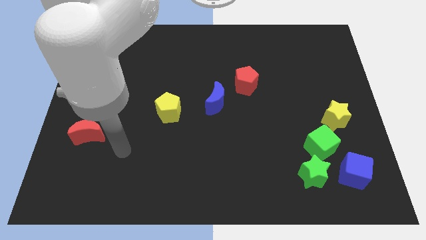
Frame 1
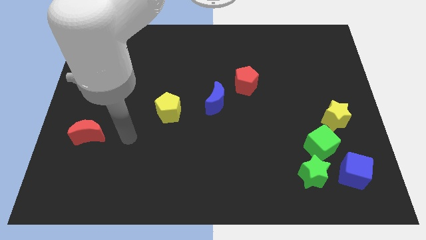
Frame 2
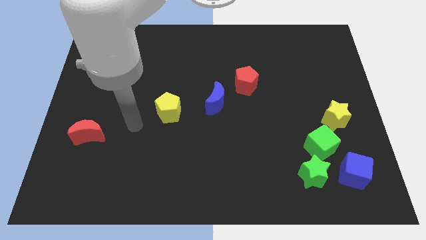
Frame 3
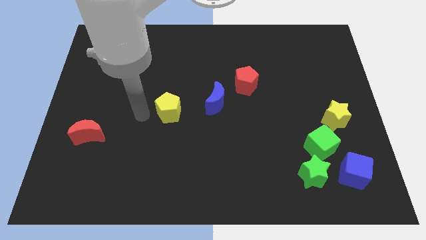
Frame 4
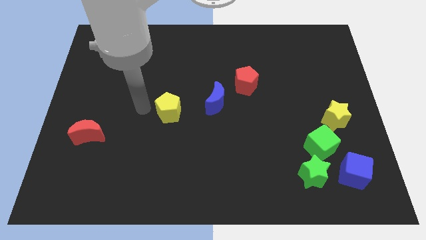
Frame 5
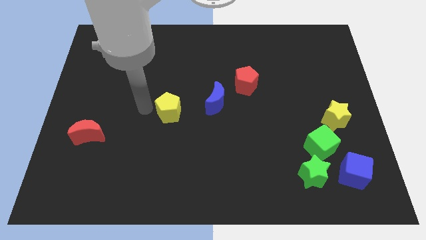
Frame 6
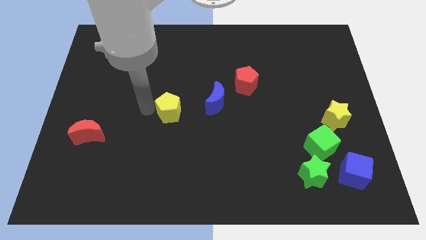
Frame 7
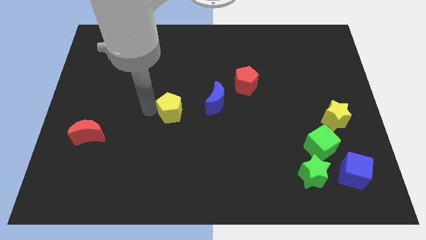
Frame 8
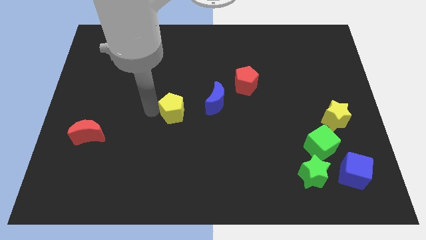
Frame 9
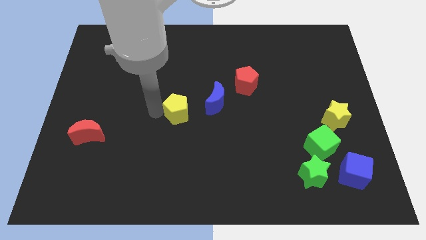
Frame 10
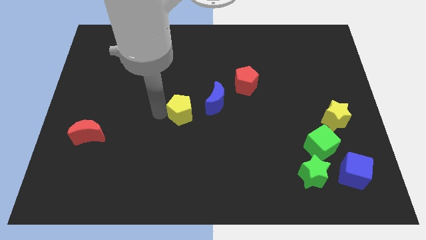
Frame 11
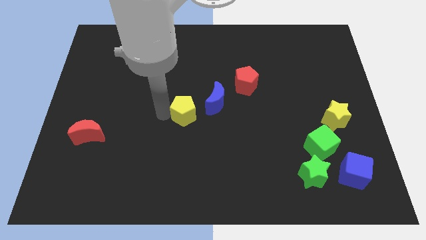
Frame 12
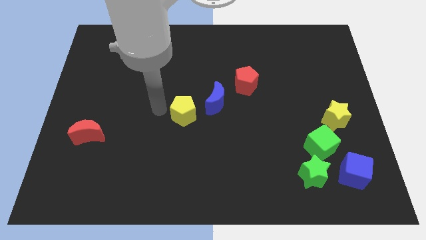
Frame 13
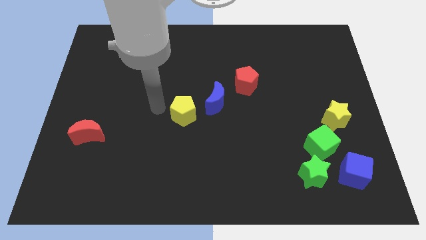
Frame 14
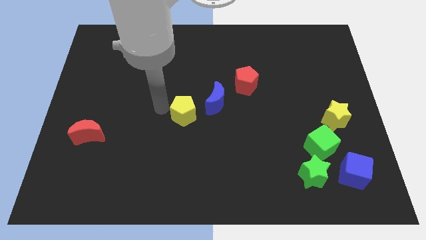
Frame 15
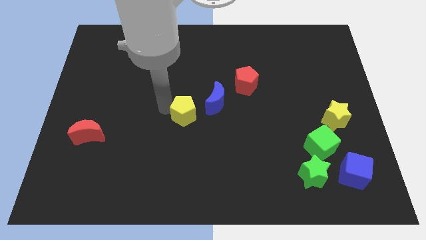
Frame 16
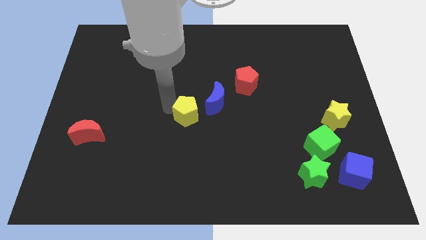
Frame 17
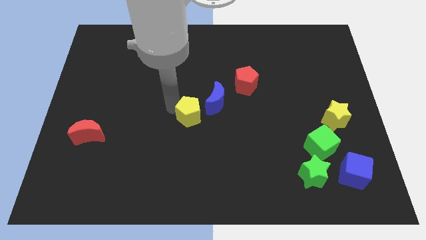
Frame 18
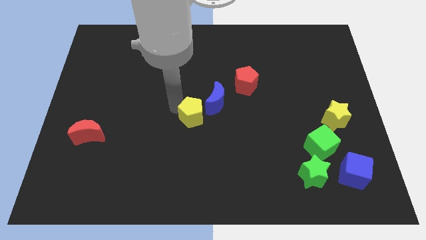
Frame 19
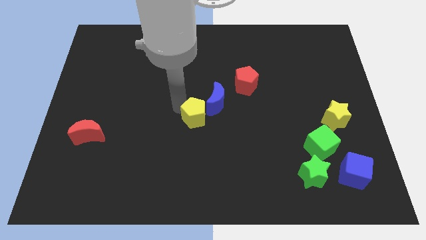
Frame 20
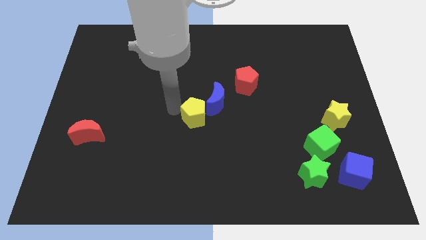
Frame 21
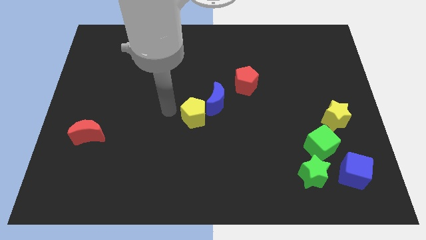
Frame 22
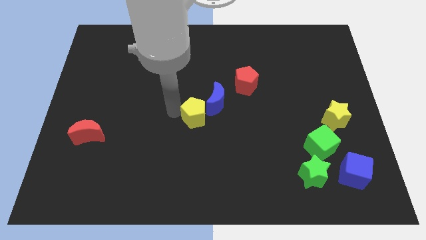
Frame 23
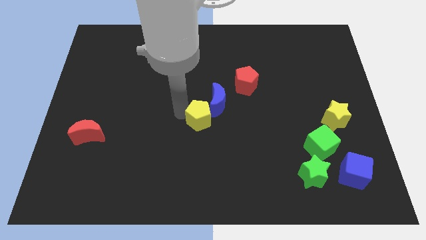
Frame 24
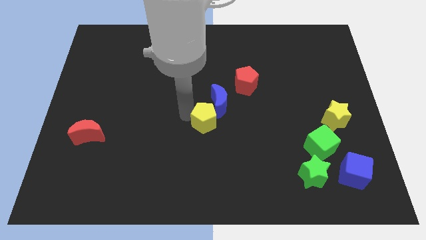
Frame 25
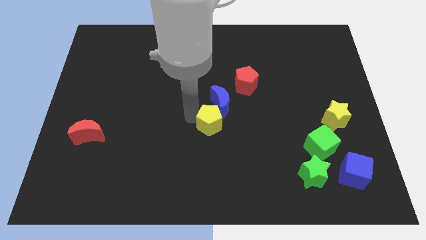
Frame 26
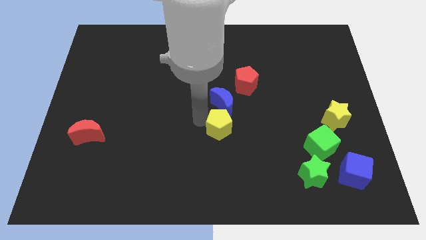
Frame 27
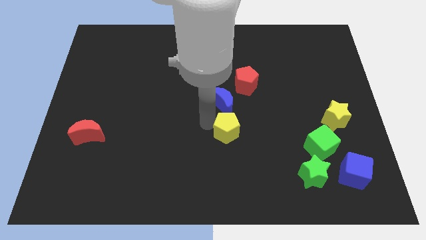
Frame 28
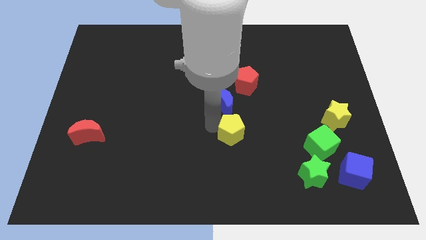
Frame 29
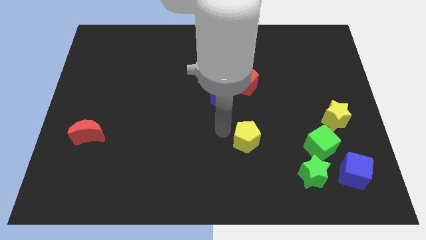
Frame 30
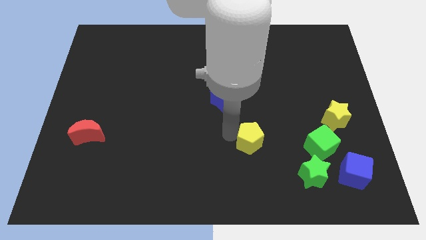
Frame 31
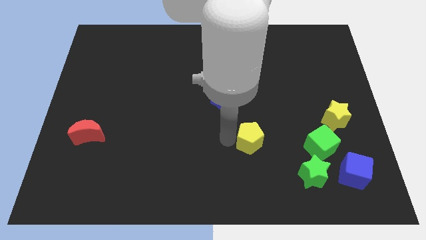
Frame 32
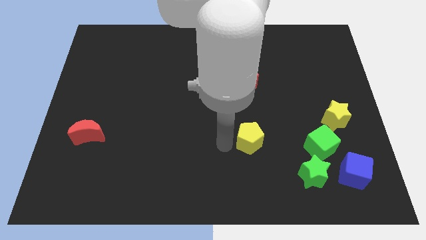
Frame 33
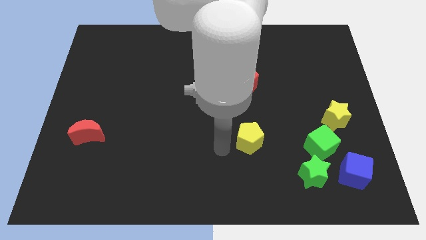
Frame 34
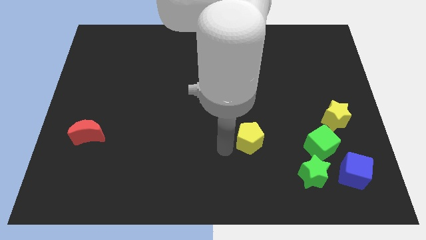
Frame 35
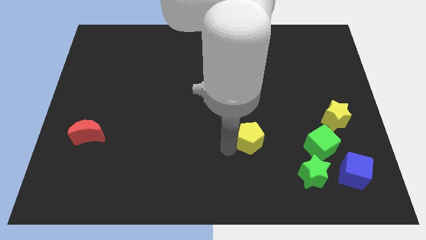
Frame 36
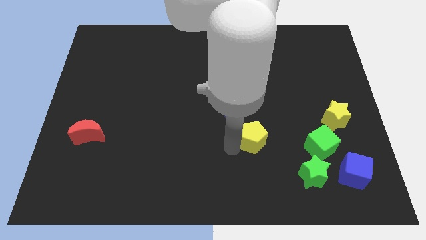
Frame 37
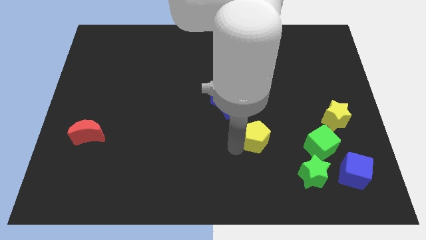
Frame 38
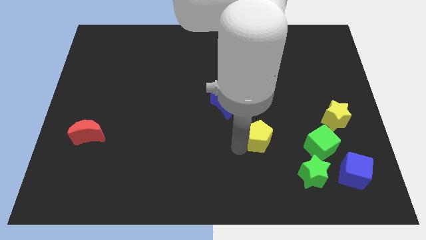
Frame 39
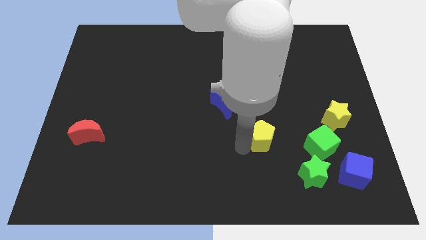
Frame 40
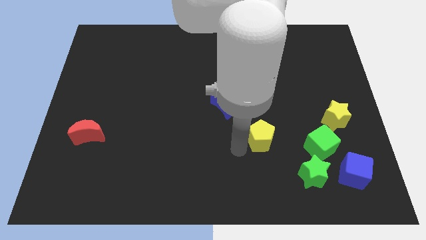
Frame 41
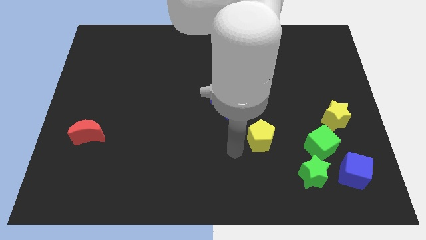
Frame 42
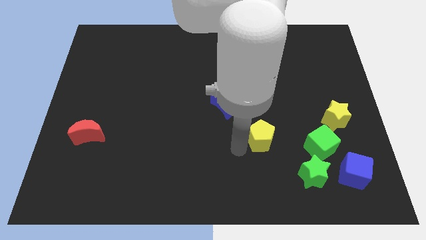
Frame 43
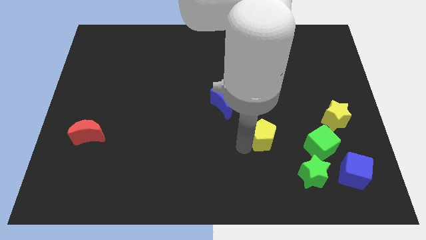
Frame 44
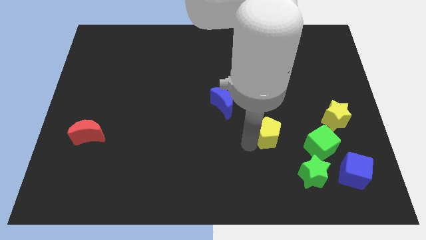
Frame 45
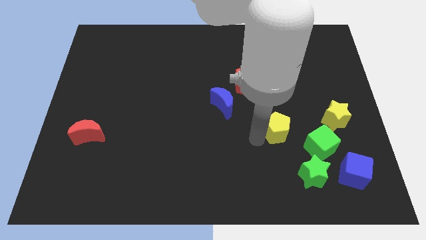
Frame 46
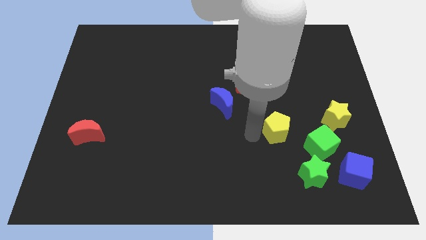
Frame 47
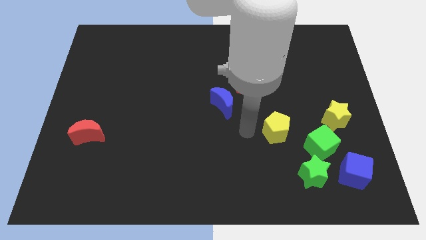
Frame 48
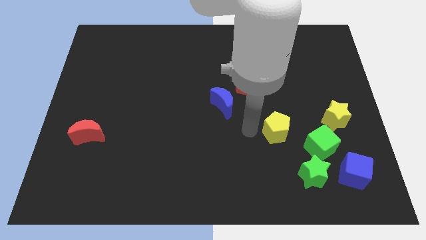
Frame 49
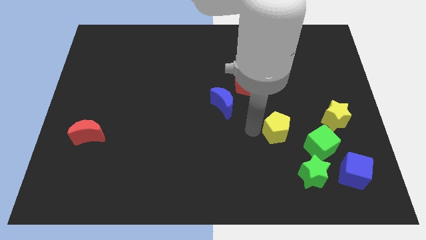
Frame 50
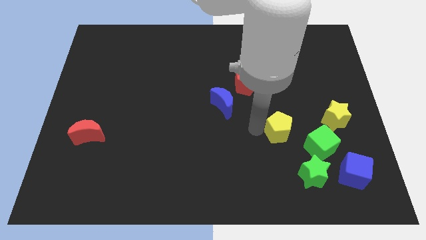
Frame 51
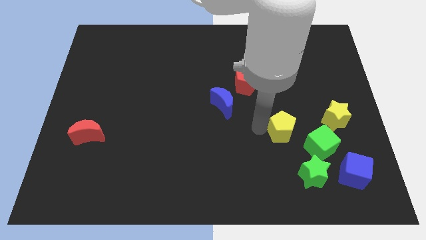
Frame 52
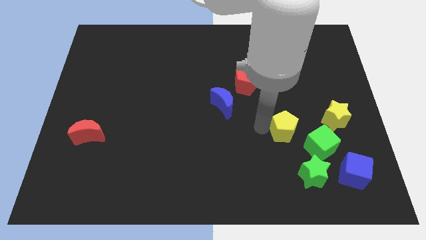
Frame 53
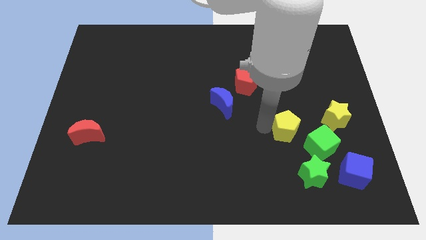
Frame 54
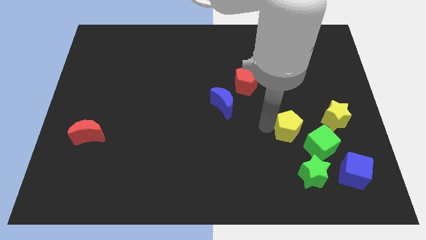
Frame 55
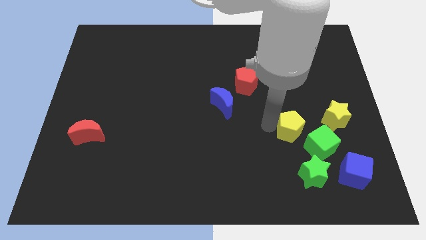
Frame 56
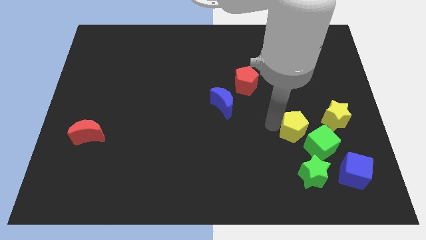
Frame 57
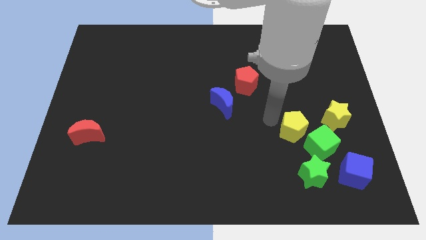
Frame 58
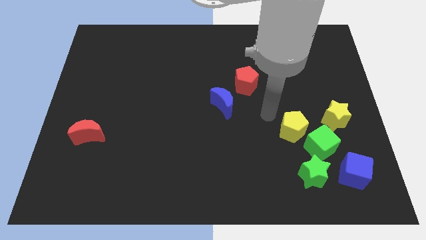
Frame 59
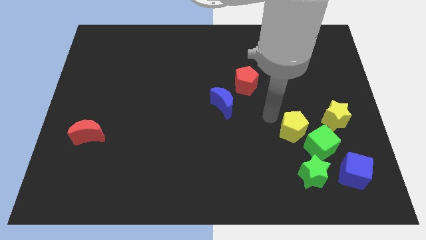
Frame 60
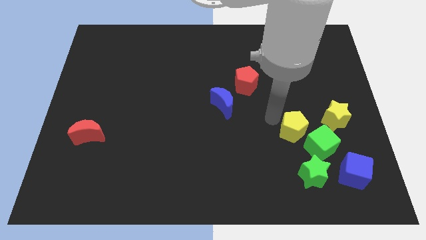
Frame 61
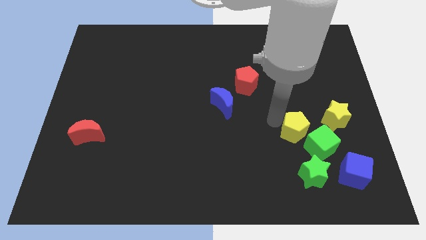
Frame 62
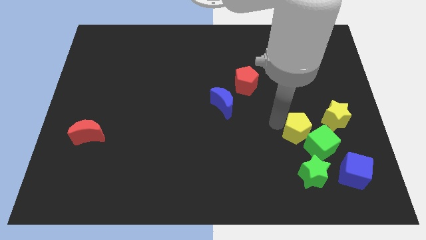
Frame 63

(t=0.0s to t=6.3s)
put the yellow pentagon close to the green cube

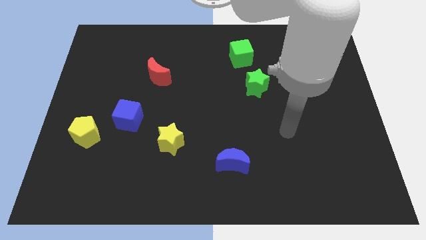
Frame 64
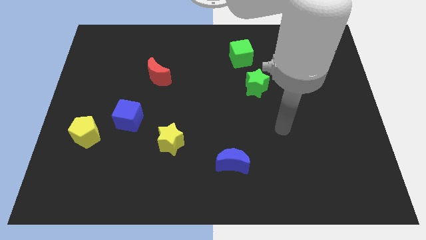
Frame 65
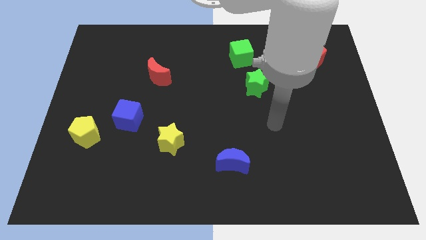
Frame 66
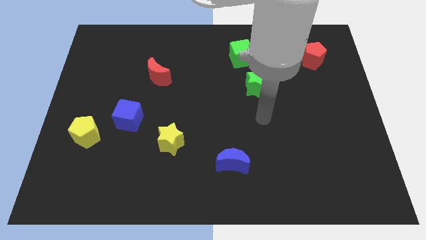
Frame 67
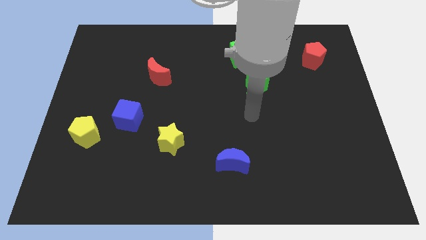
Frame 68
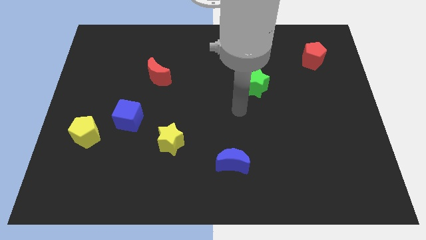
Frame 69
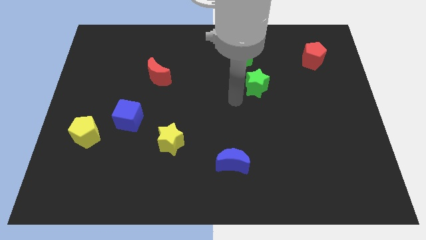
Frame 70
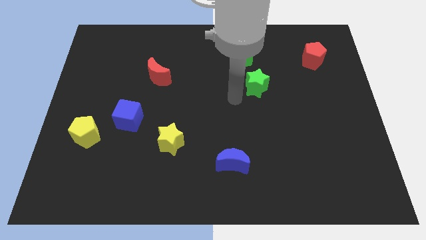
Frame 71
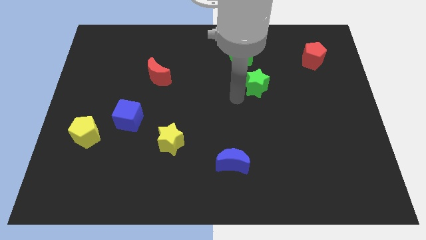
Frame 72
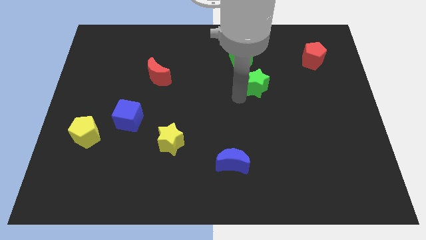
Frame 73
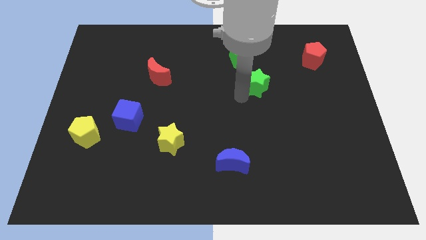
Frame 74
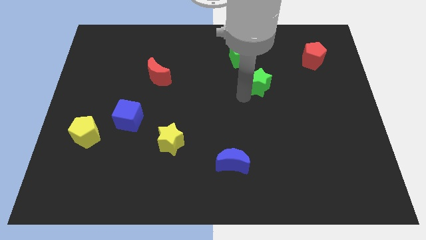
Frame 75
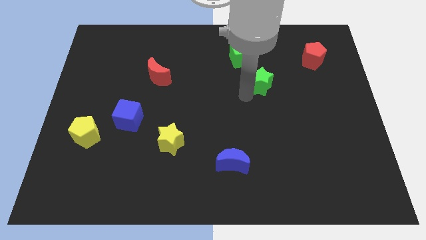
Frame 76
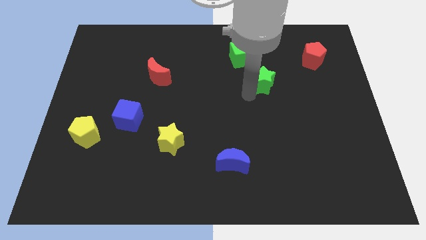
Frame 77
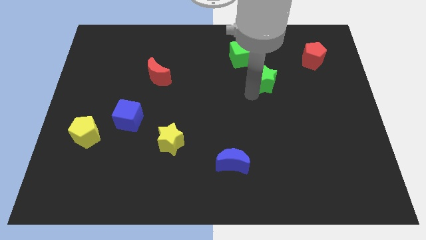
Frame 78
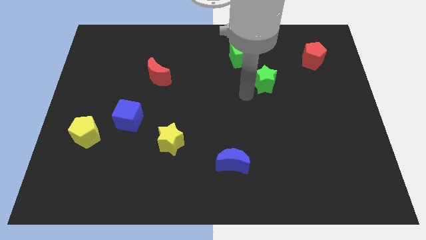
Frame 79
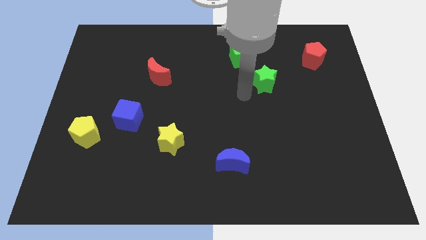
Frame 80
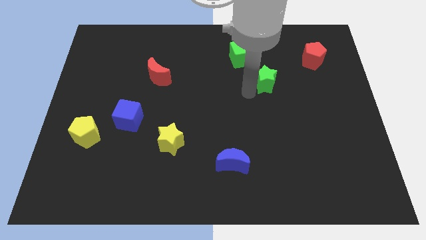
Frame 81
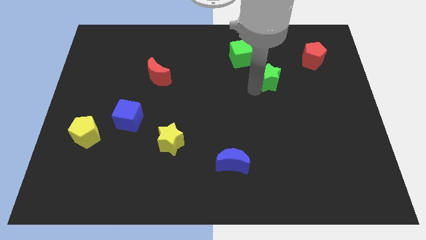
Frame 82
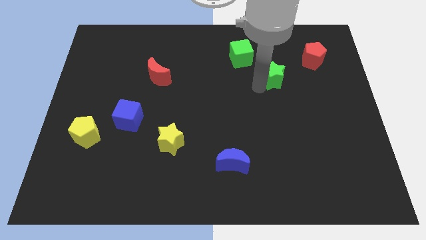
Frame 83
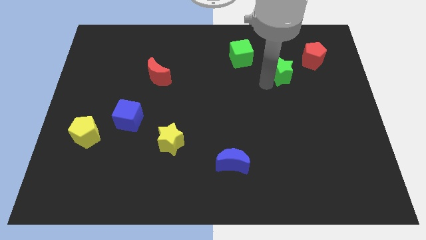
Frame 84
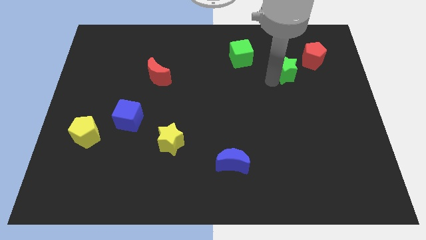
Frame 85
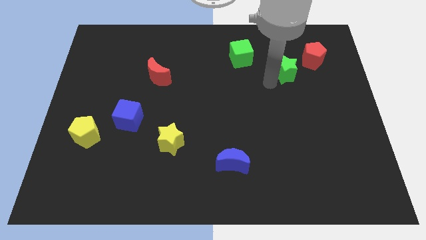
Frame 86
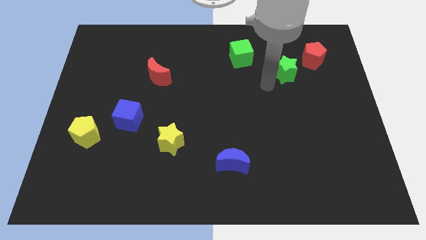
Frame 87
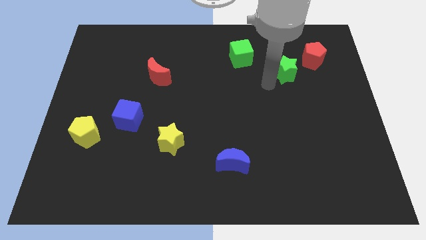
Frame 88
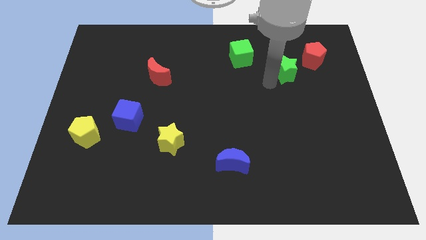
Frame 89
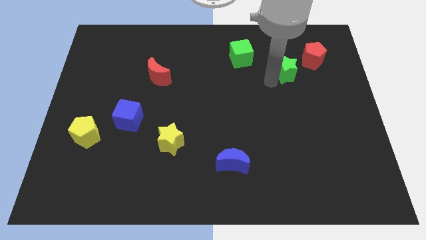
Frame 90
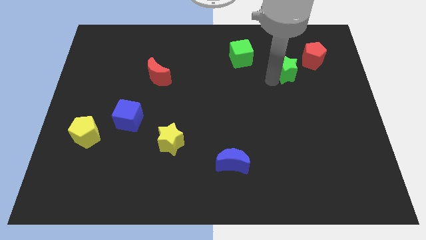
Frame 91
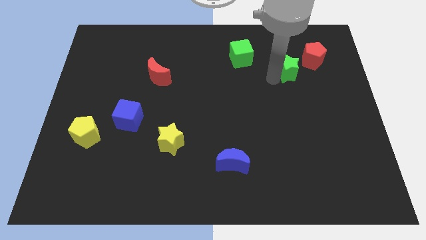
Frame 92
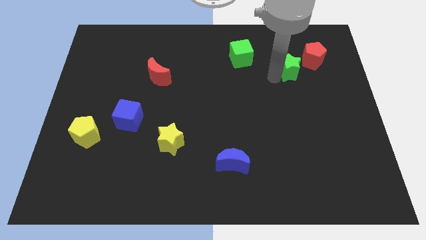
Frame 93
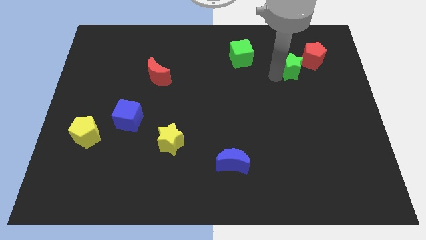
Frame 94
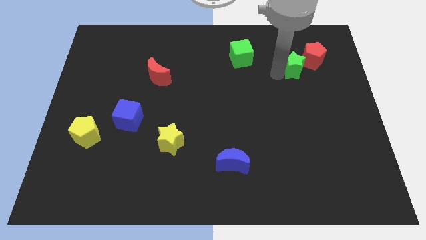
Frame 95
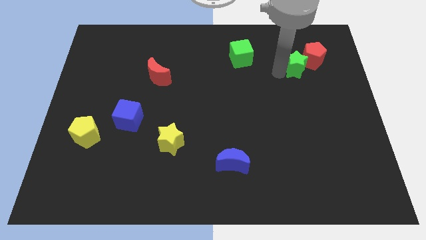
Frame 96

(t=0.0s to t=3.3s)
put the green star close to the red pentagon
